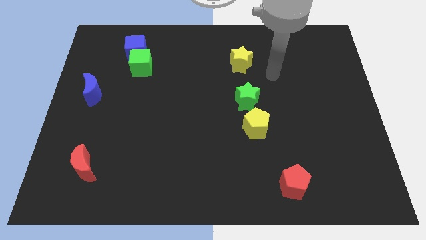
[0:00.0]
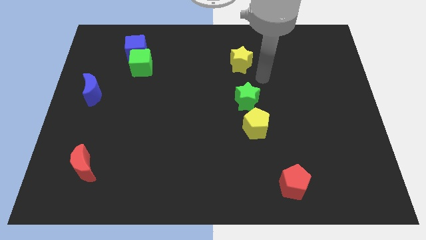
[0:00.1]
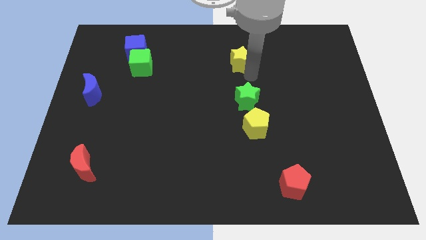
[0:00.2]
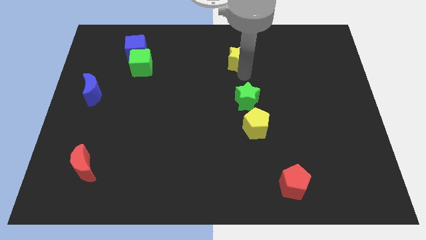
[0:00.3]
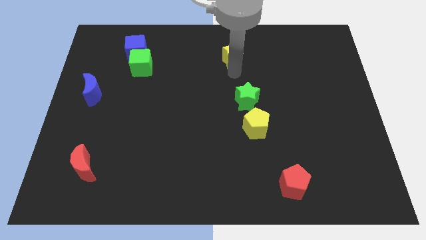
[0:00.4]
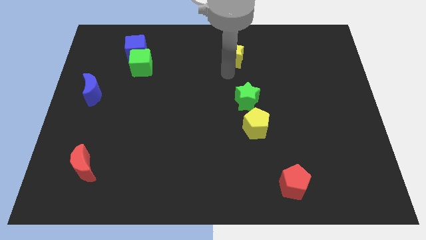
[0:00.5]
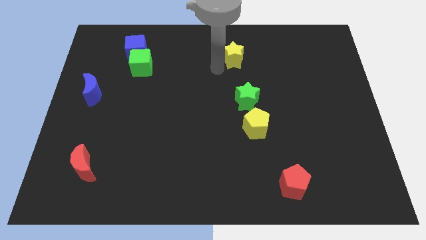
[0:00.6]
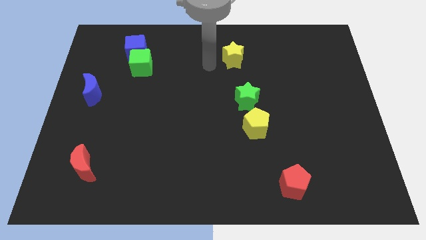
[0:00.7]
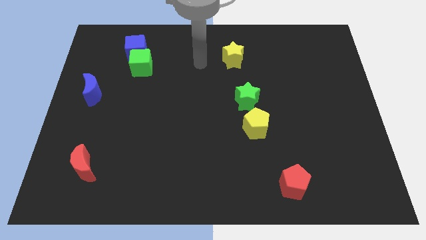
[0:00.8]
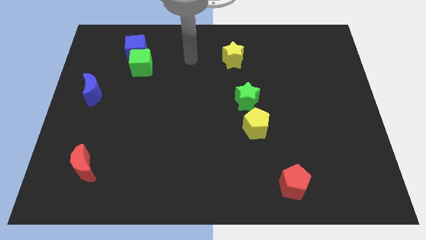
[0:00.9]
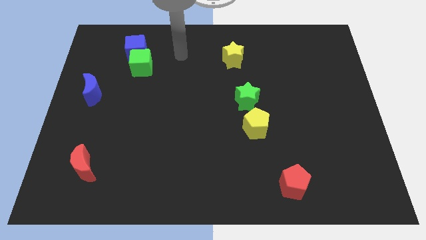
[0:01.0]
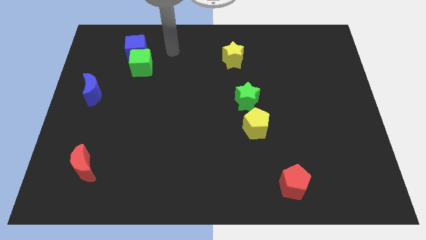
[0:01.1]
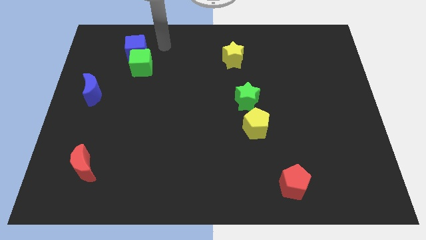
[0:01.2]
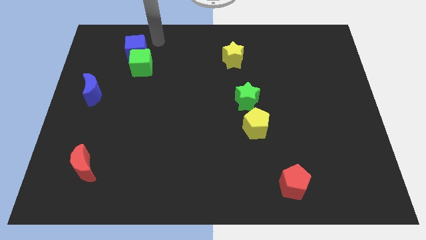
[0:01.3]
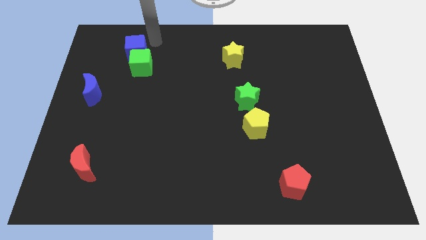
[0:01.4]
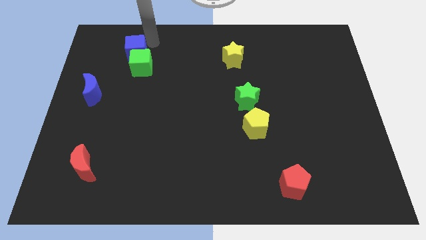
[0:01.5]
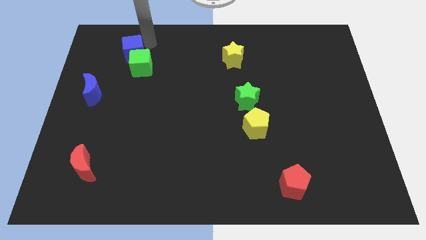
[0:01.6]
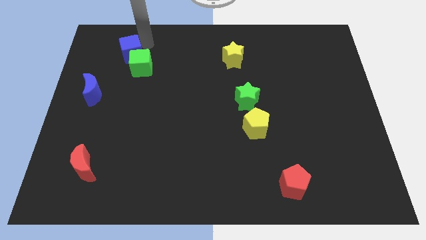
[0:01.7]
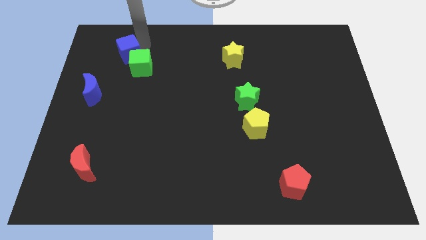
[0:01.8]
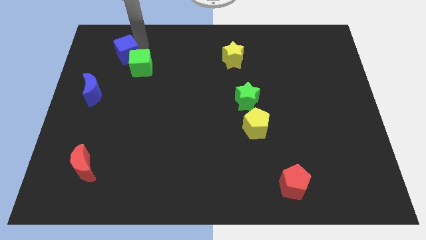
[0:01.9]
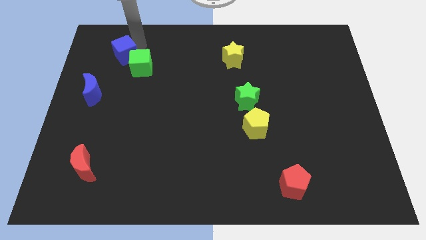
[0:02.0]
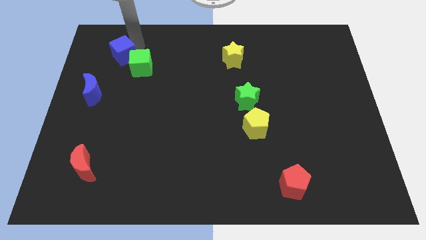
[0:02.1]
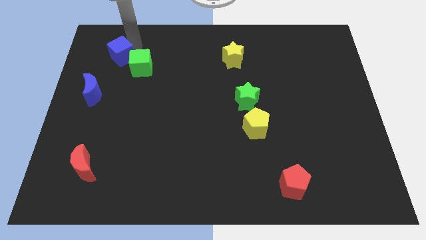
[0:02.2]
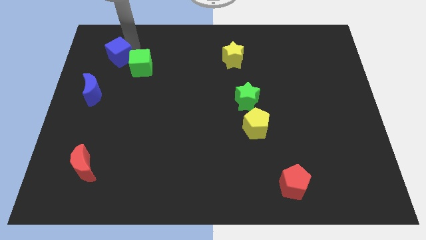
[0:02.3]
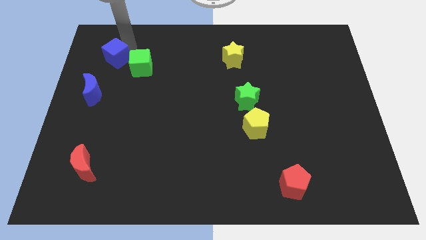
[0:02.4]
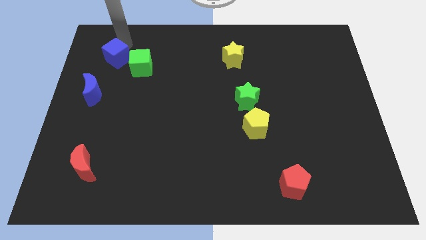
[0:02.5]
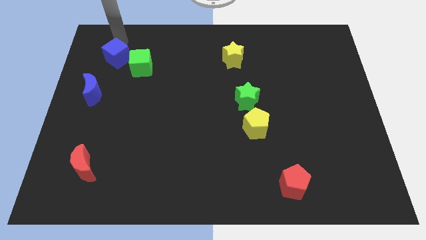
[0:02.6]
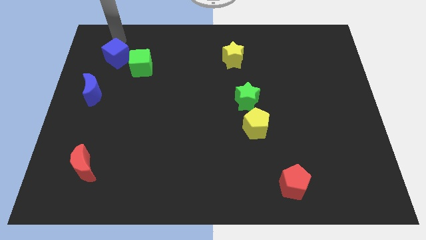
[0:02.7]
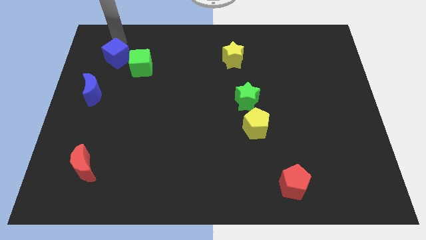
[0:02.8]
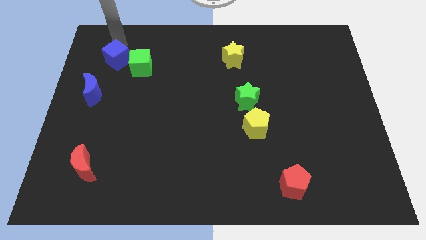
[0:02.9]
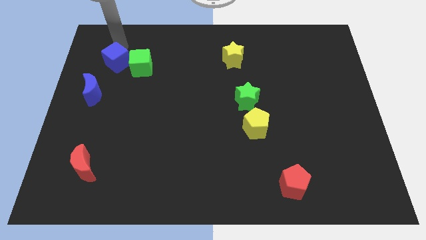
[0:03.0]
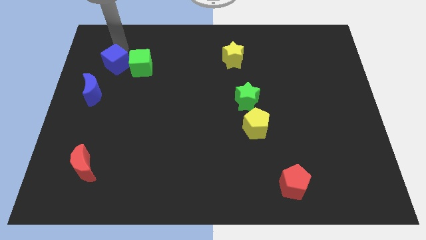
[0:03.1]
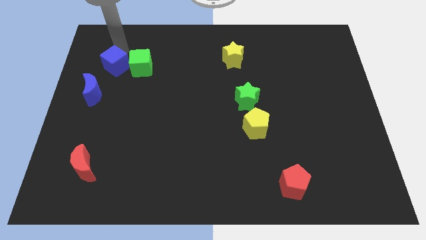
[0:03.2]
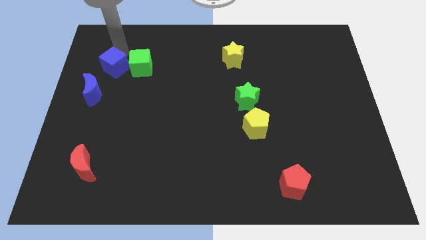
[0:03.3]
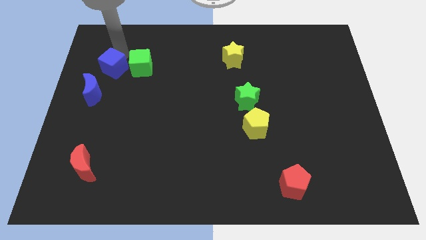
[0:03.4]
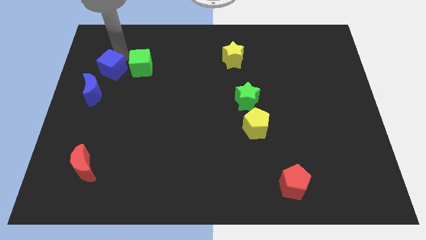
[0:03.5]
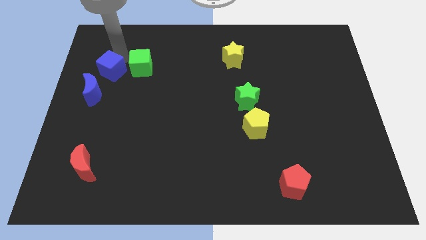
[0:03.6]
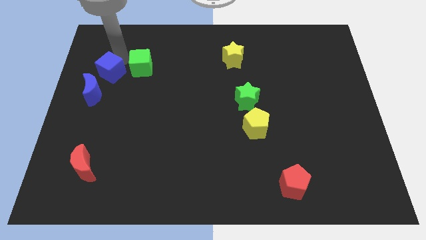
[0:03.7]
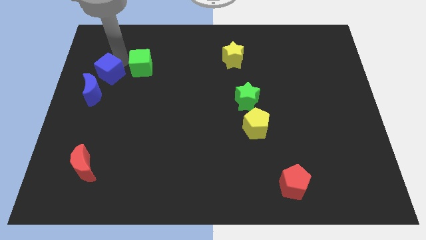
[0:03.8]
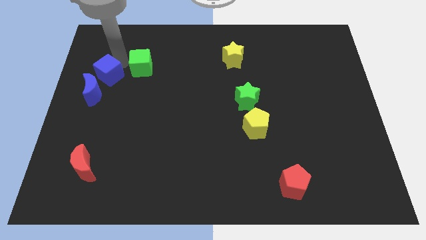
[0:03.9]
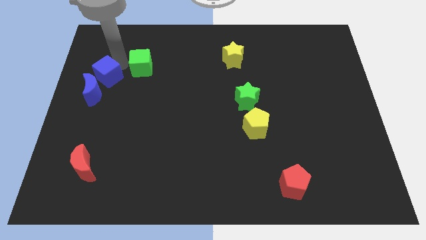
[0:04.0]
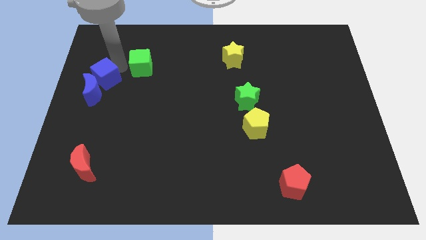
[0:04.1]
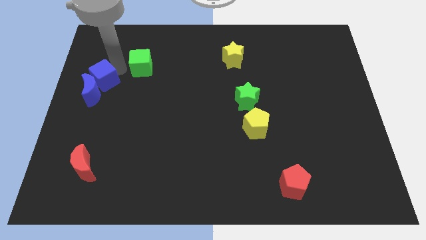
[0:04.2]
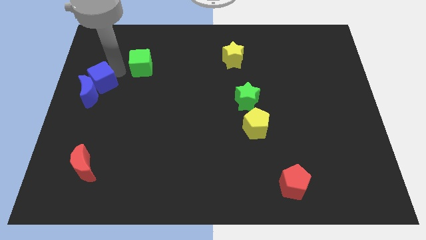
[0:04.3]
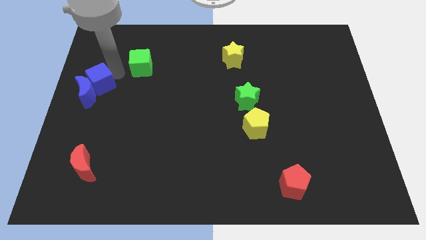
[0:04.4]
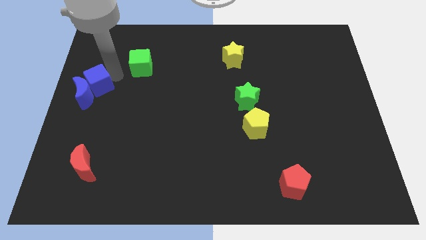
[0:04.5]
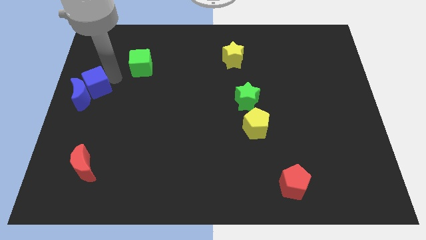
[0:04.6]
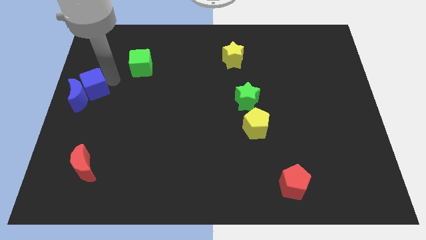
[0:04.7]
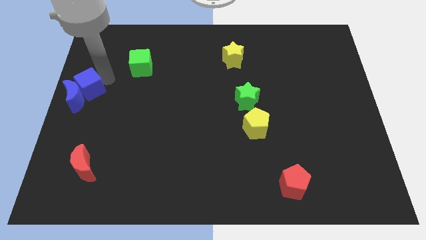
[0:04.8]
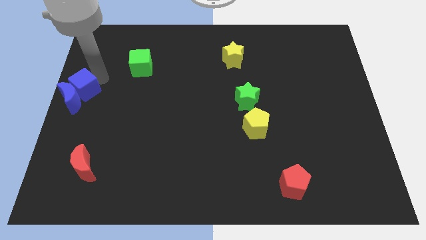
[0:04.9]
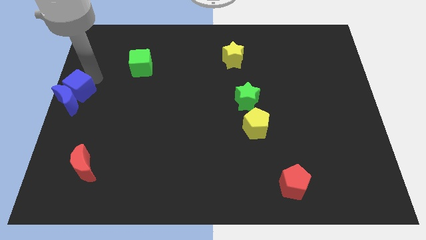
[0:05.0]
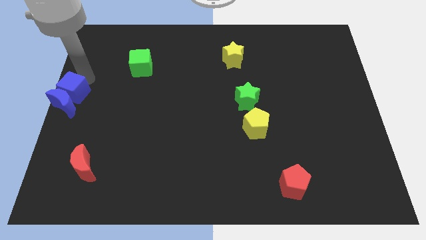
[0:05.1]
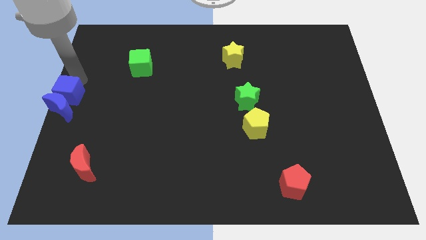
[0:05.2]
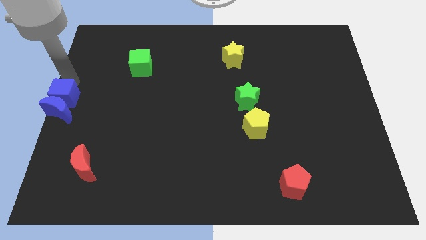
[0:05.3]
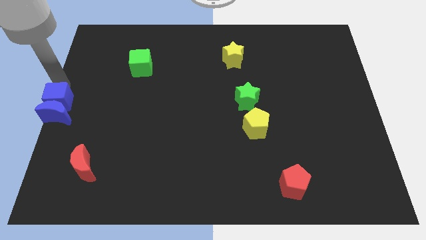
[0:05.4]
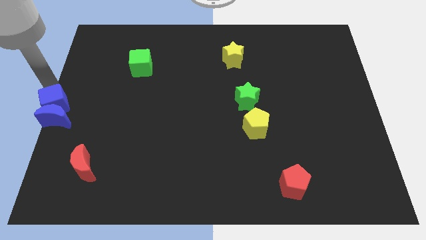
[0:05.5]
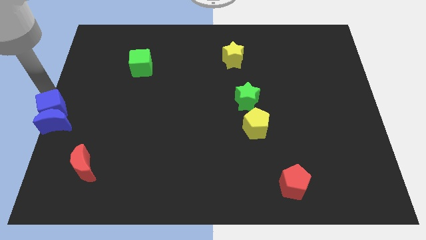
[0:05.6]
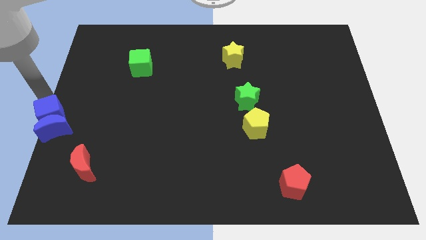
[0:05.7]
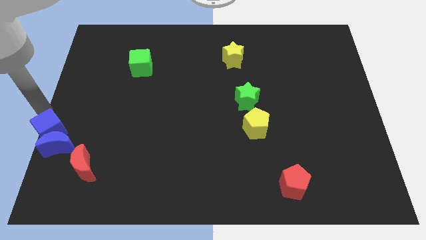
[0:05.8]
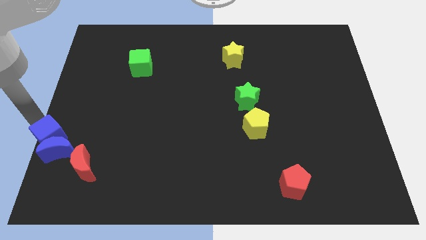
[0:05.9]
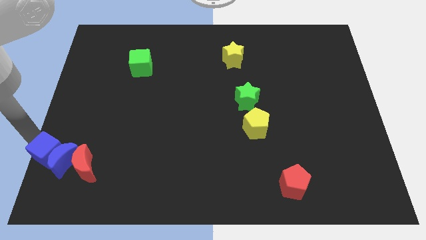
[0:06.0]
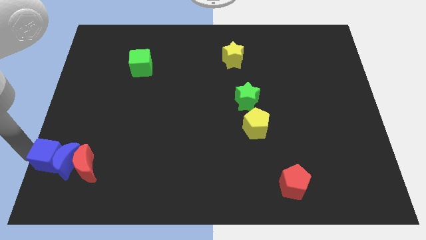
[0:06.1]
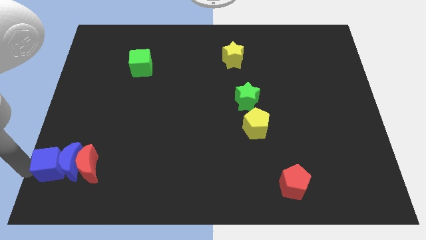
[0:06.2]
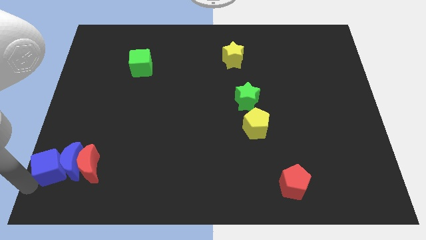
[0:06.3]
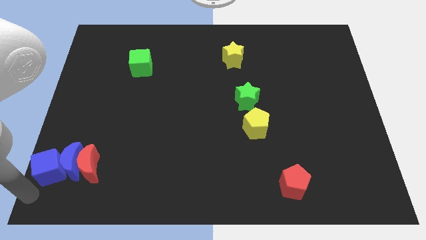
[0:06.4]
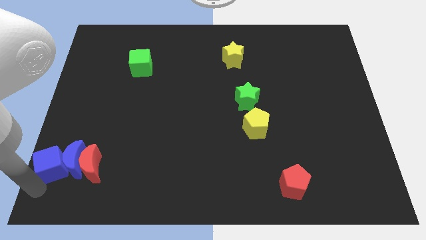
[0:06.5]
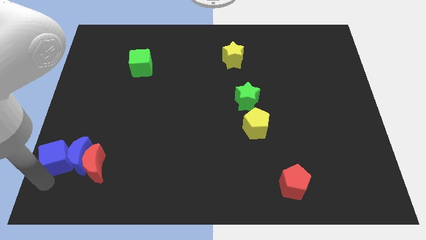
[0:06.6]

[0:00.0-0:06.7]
push the blue cube down

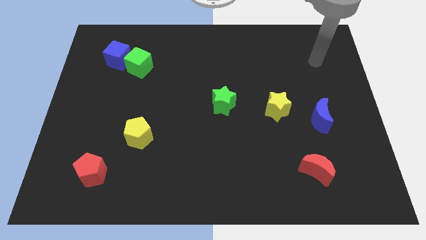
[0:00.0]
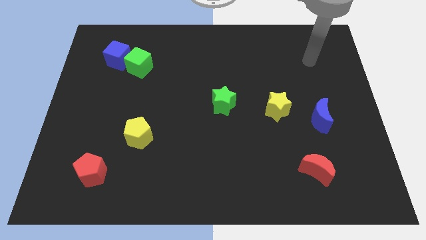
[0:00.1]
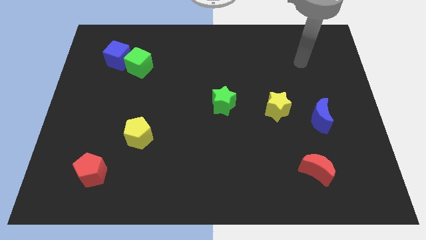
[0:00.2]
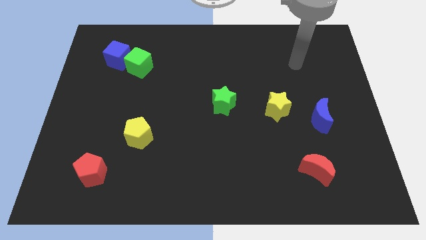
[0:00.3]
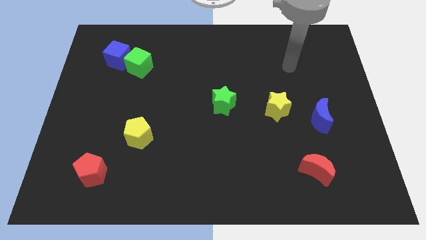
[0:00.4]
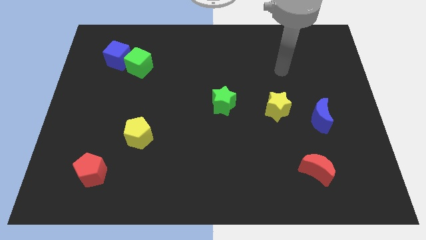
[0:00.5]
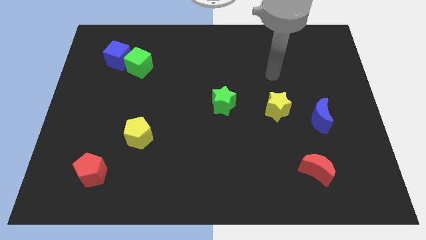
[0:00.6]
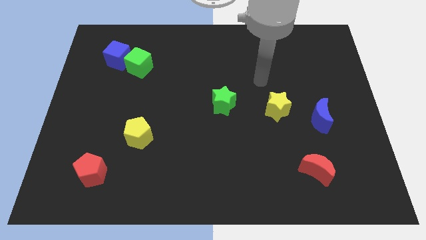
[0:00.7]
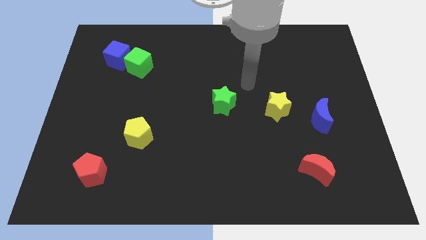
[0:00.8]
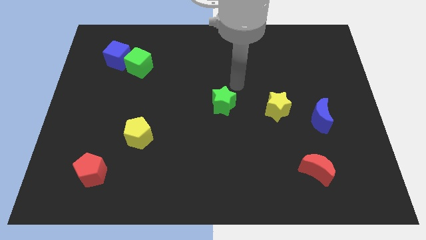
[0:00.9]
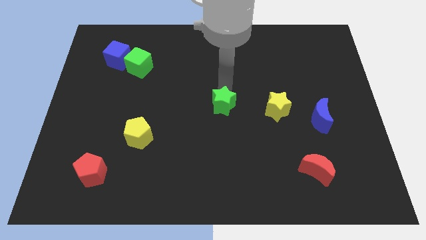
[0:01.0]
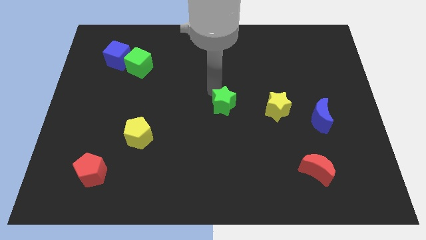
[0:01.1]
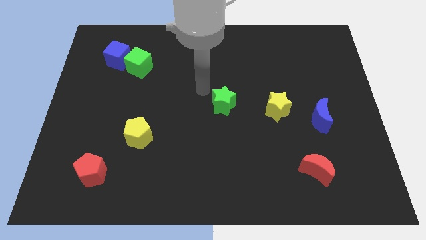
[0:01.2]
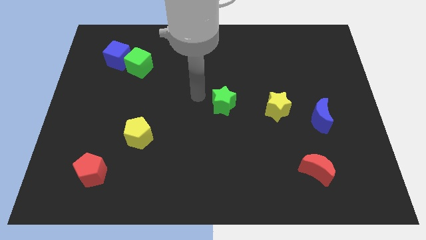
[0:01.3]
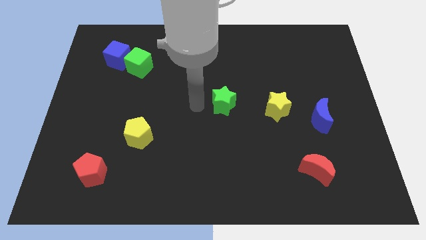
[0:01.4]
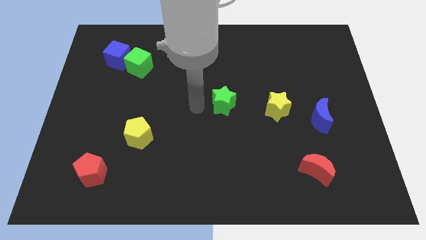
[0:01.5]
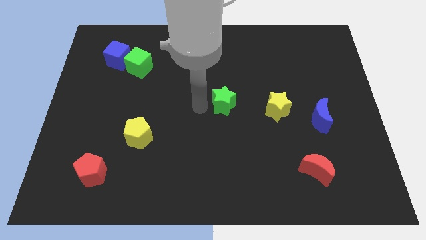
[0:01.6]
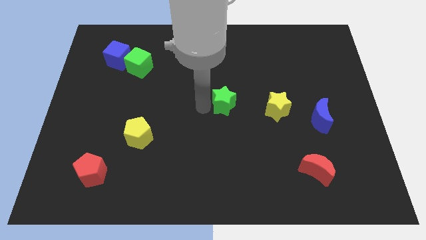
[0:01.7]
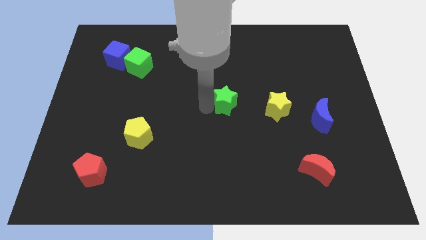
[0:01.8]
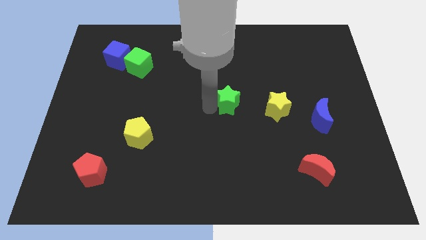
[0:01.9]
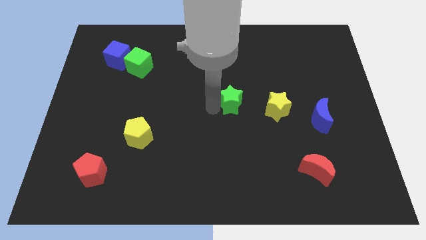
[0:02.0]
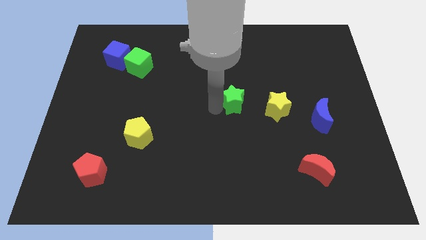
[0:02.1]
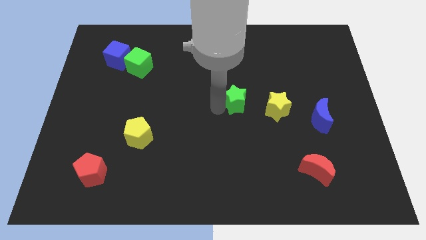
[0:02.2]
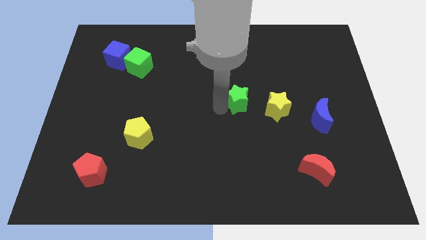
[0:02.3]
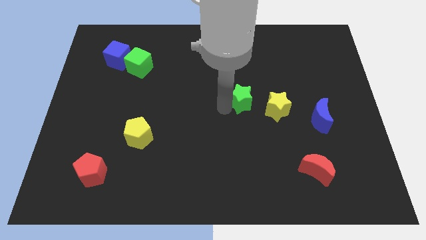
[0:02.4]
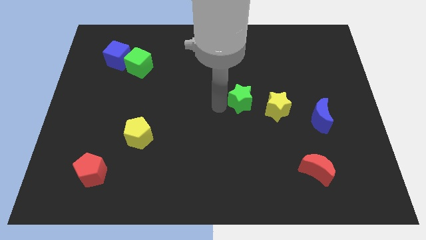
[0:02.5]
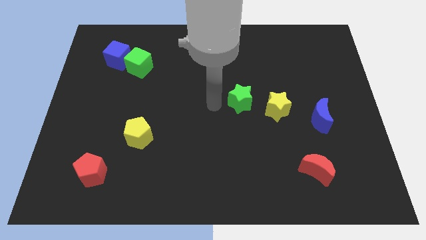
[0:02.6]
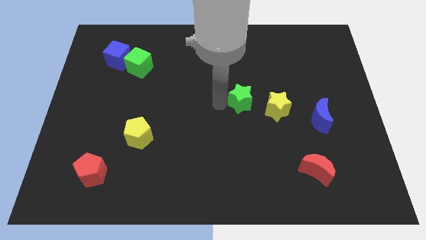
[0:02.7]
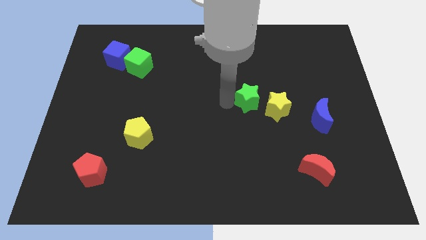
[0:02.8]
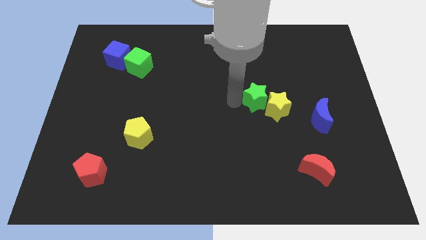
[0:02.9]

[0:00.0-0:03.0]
slightly move the green star right
